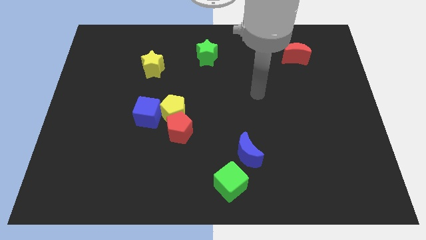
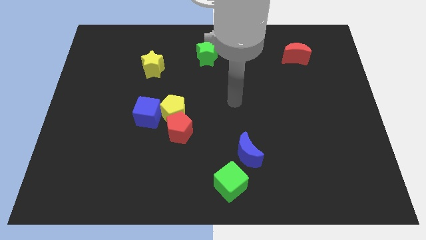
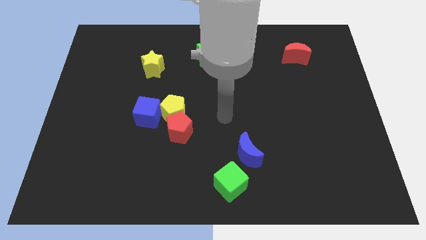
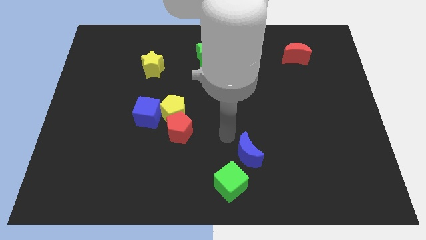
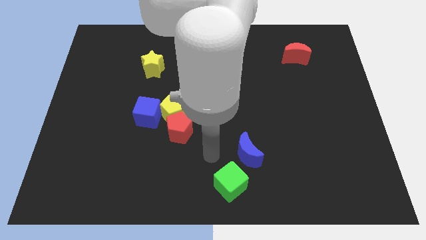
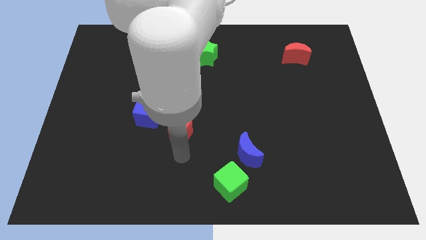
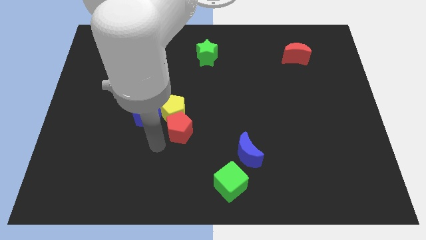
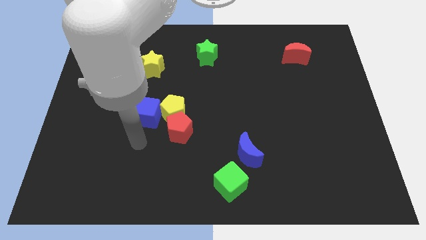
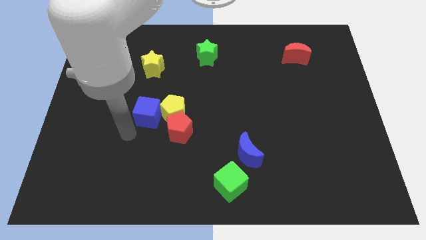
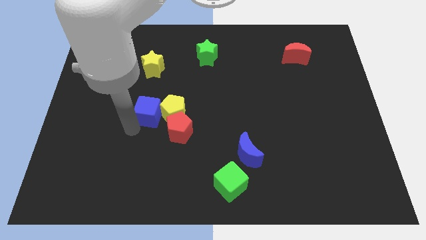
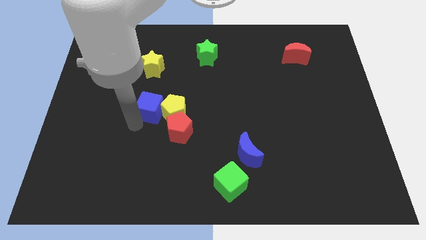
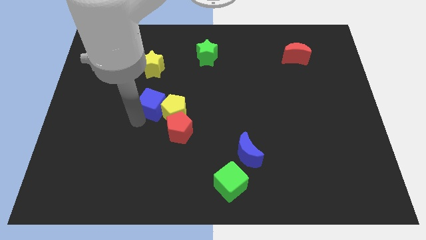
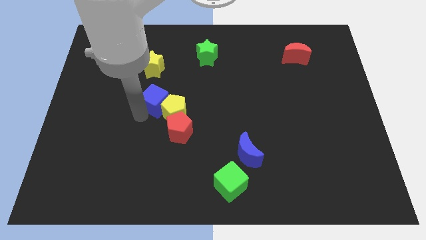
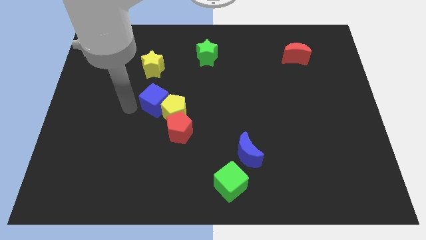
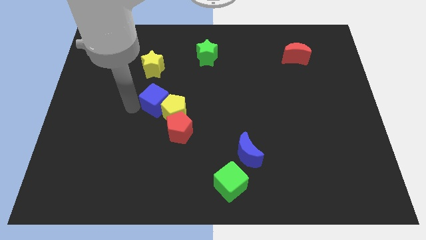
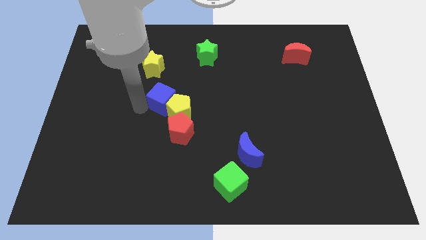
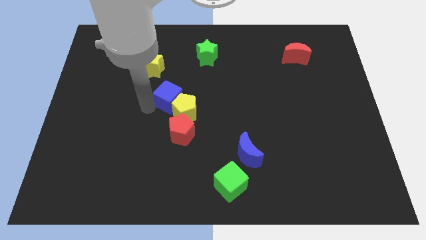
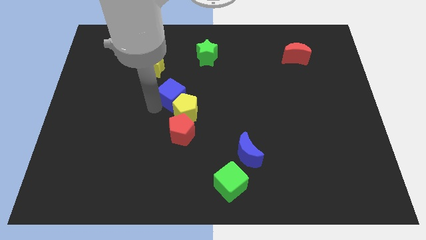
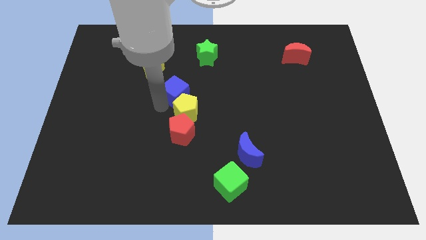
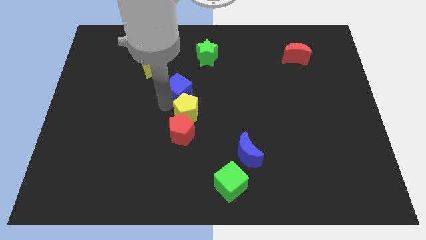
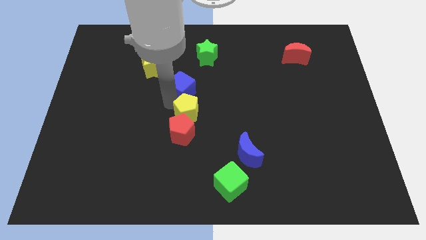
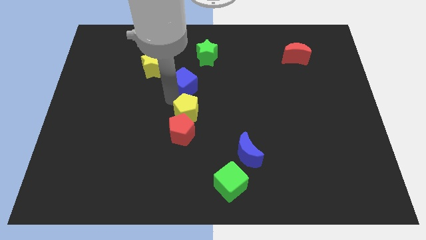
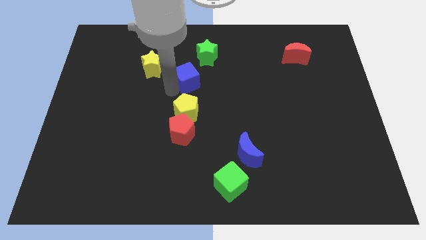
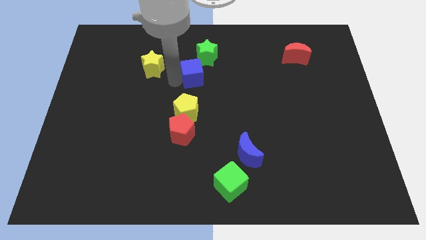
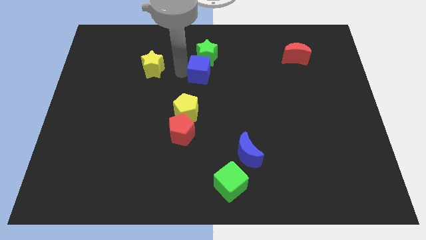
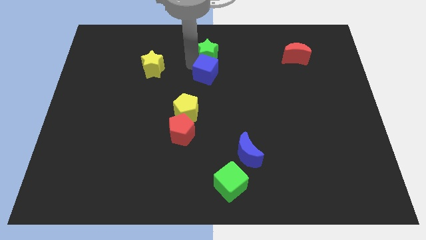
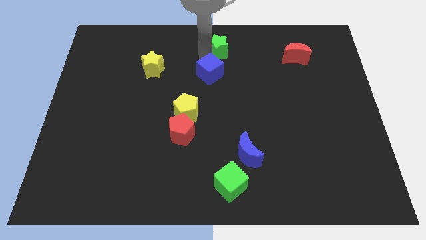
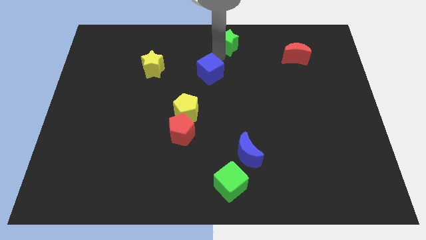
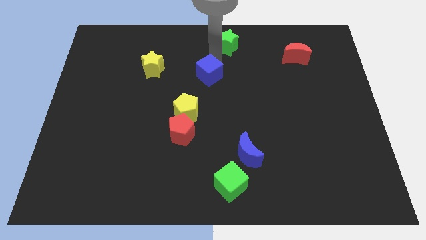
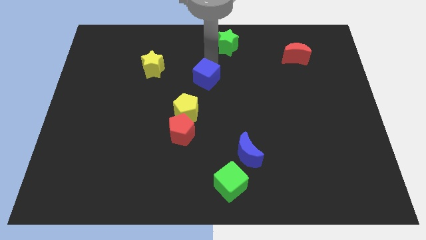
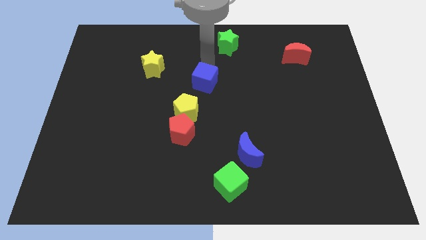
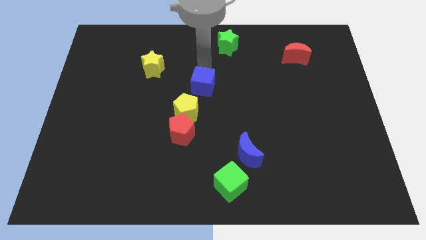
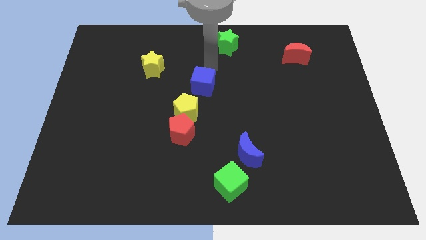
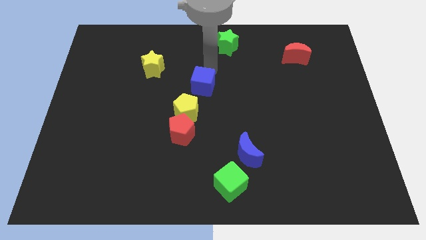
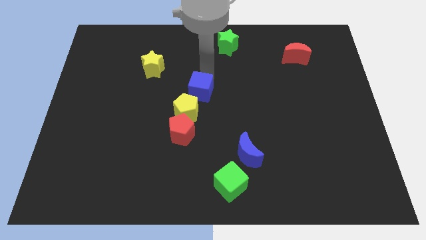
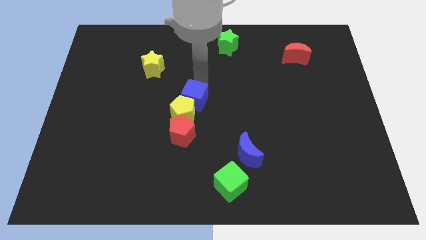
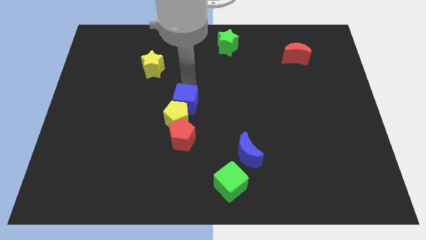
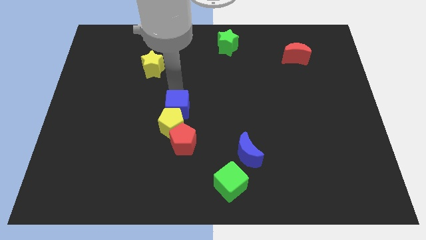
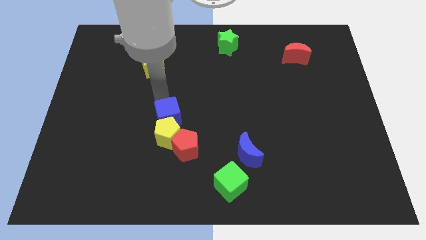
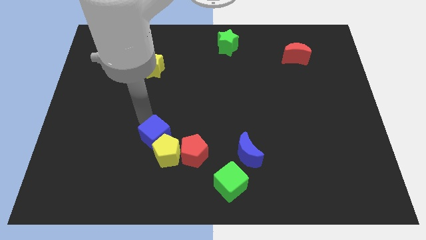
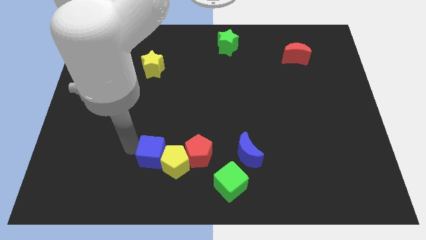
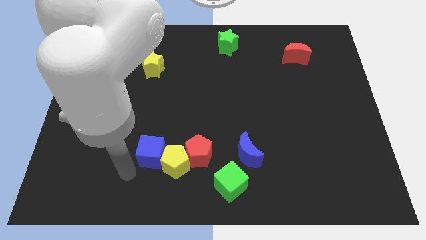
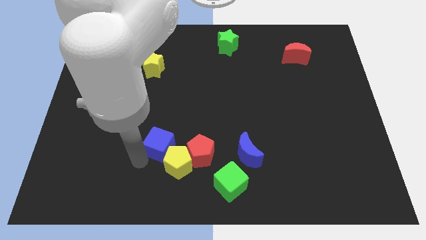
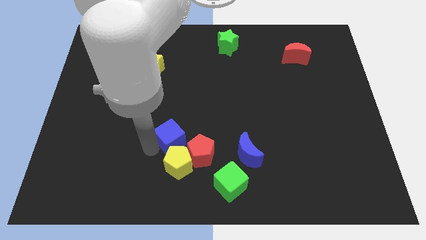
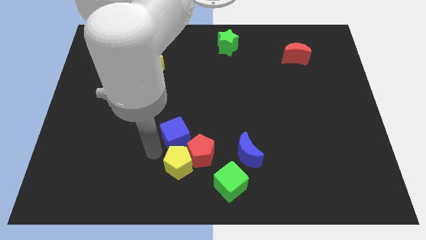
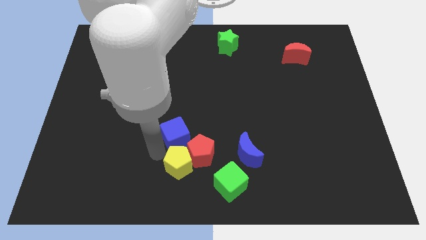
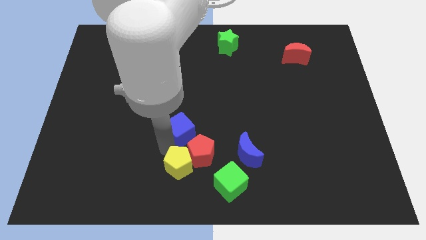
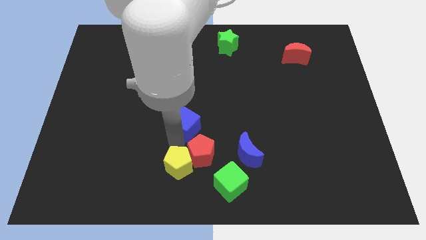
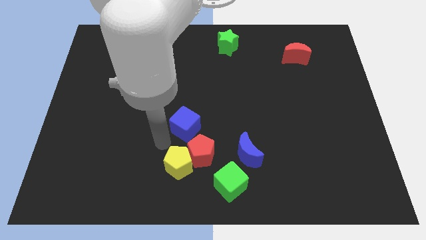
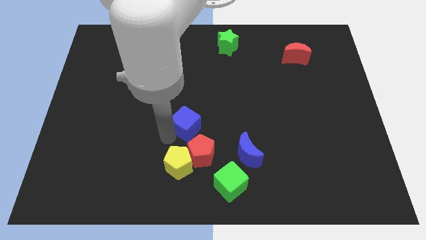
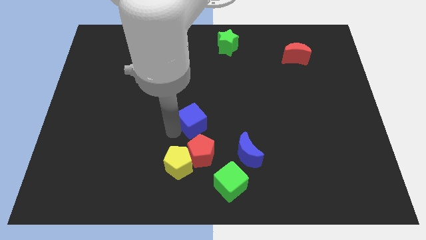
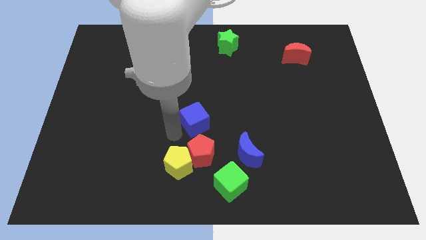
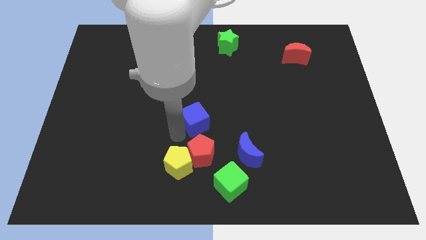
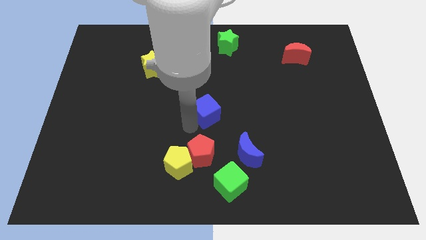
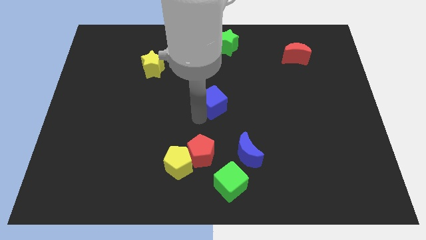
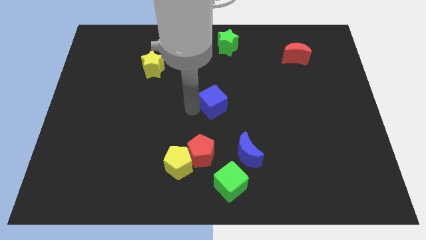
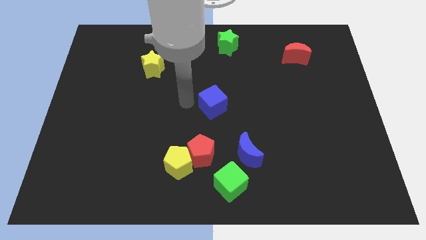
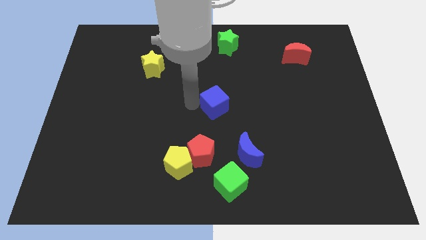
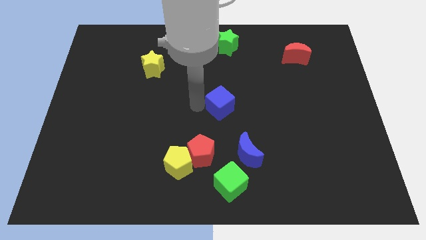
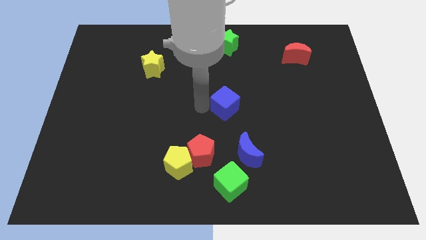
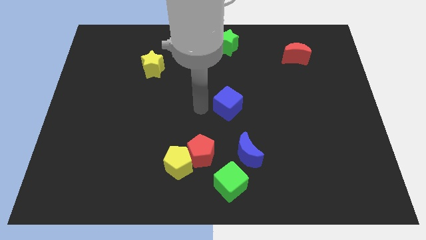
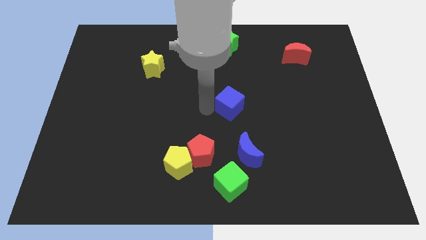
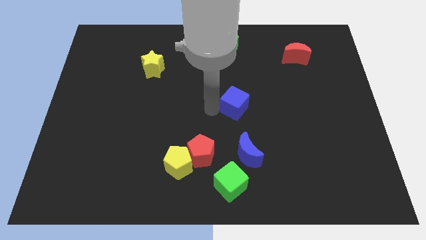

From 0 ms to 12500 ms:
move the blue cube right

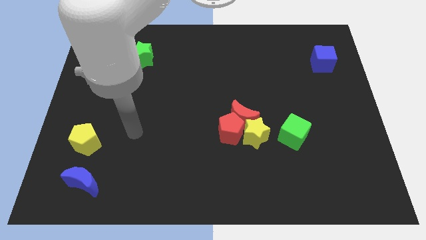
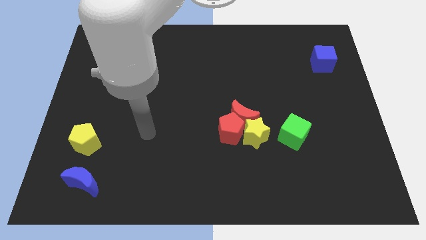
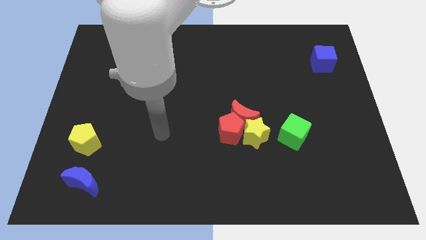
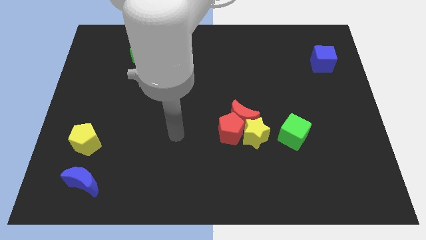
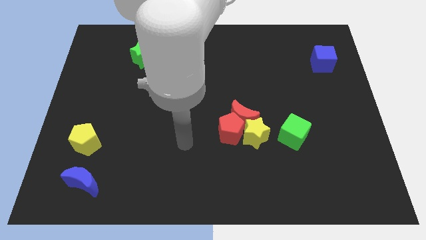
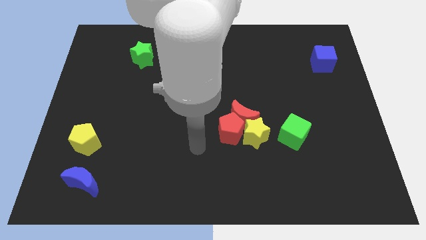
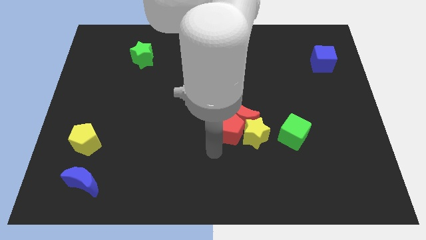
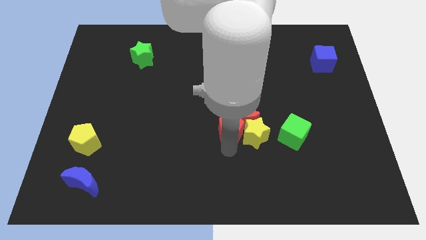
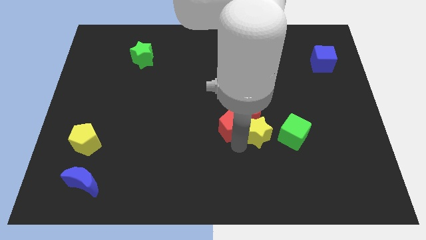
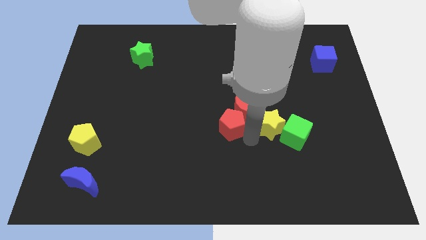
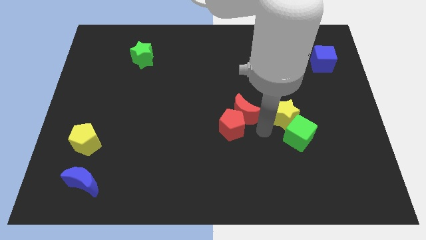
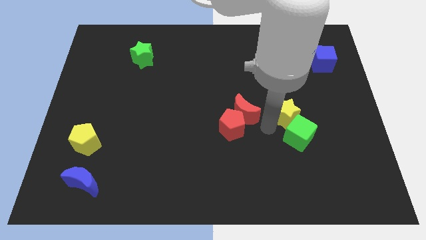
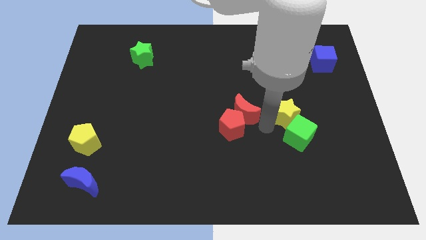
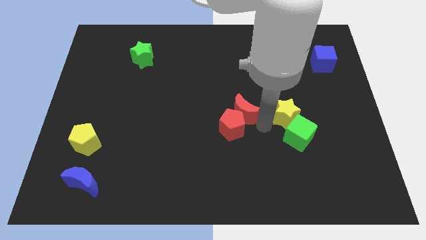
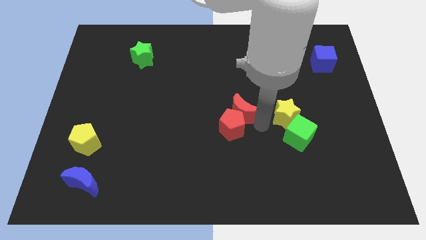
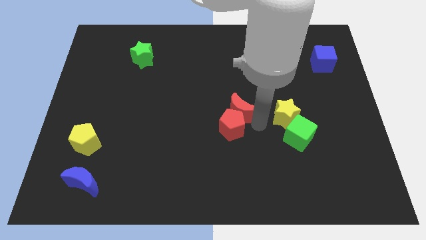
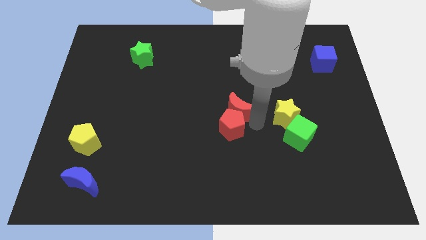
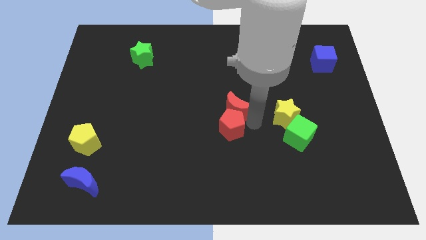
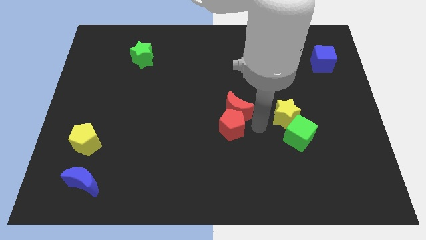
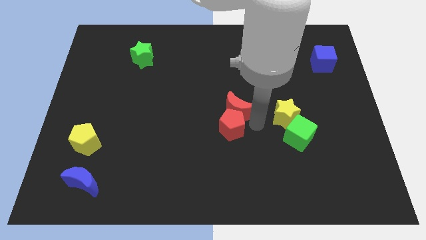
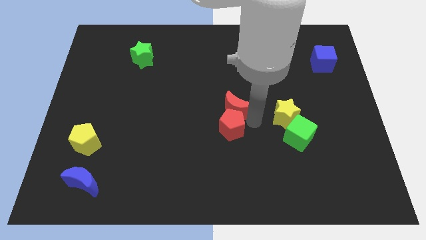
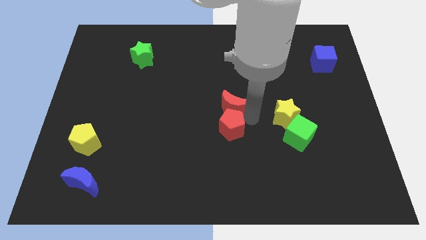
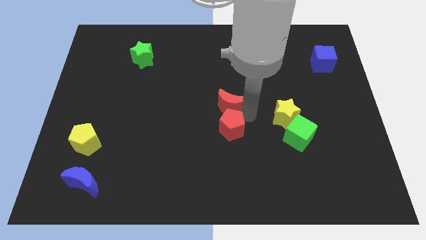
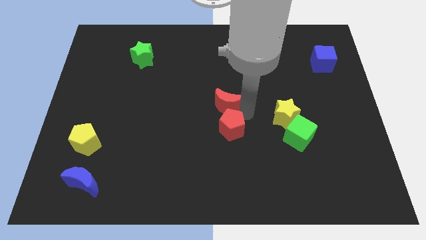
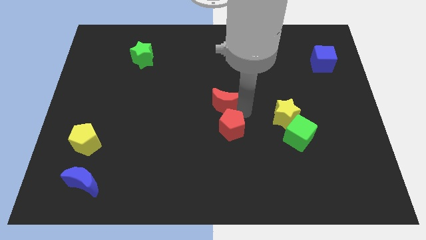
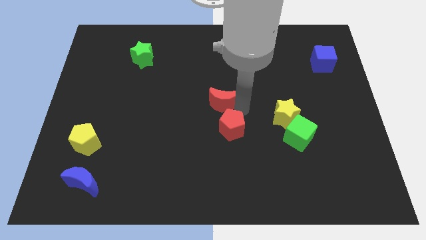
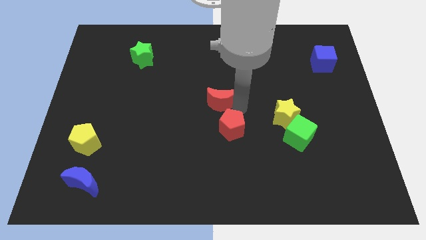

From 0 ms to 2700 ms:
slightly move the red moon diagonally upwards and to the left
